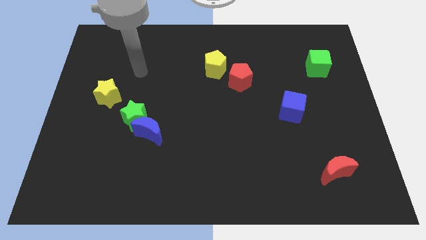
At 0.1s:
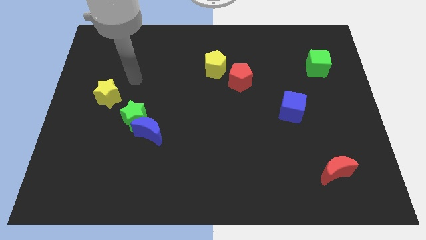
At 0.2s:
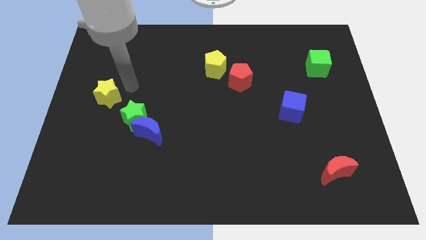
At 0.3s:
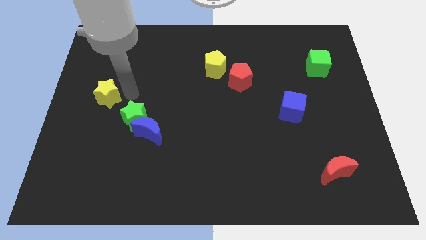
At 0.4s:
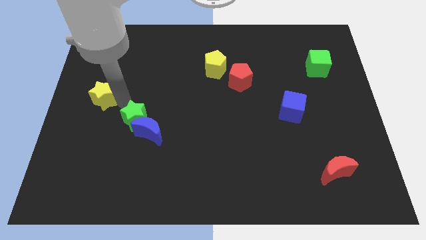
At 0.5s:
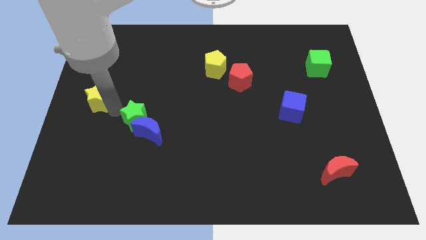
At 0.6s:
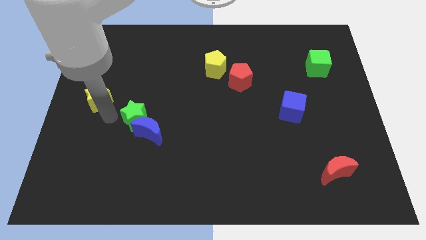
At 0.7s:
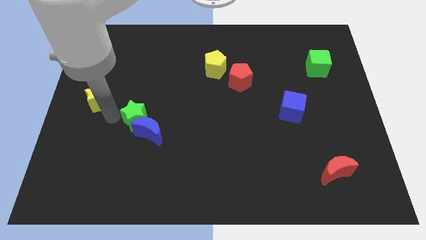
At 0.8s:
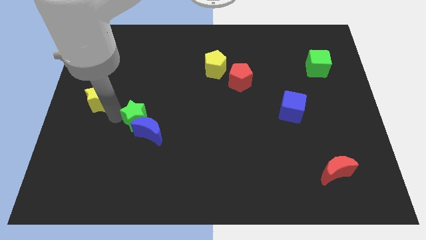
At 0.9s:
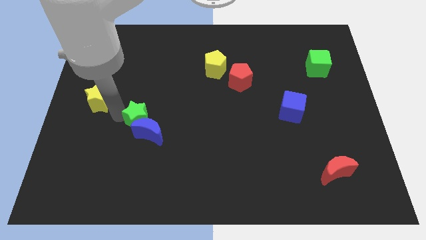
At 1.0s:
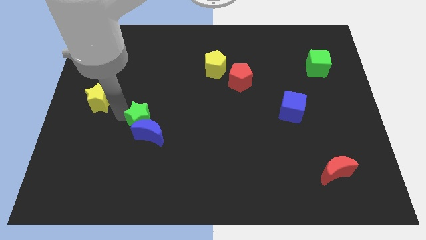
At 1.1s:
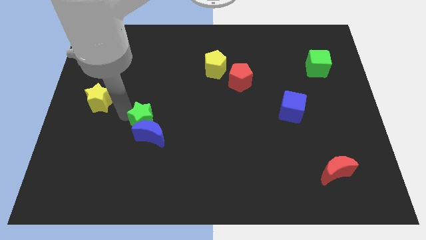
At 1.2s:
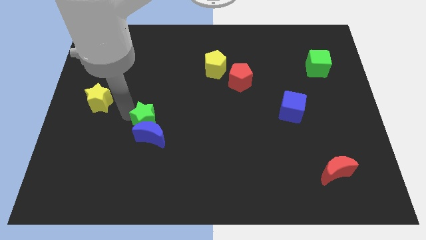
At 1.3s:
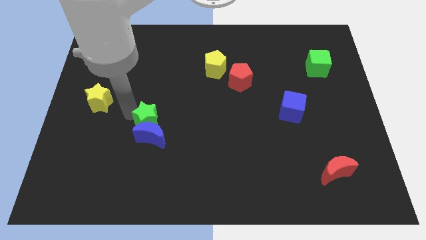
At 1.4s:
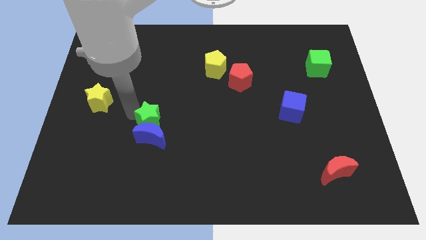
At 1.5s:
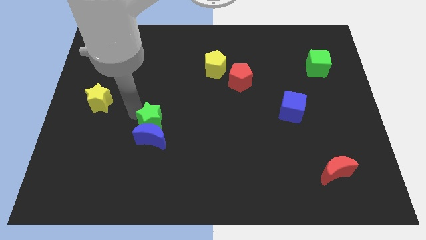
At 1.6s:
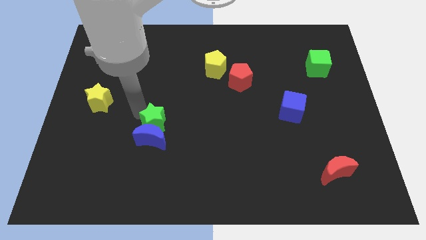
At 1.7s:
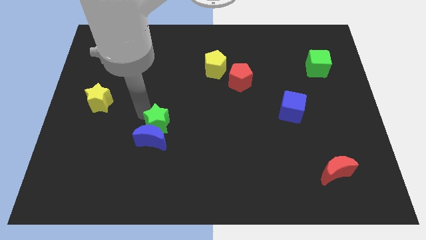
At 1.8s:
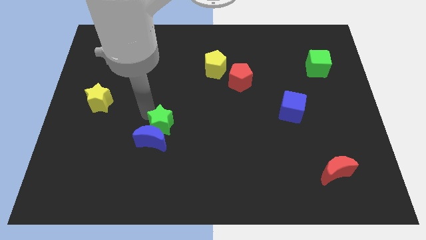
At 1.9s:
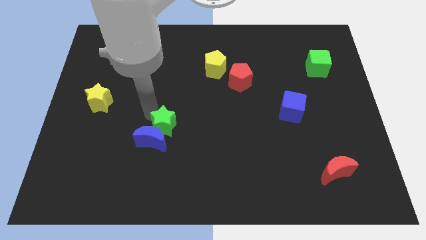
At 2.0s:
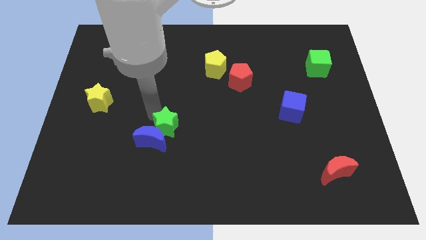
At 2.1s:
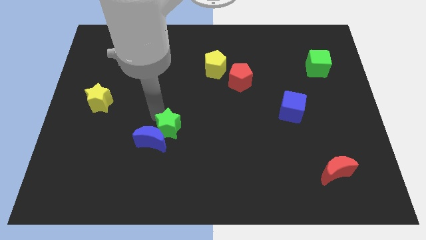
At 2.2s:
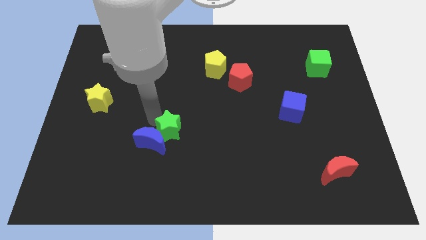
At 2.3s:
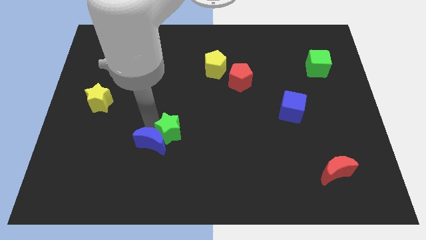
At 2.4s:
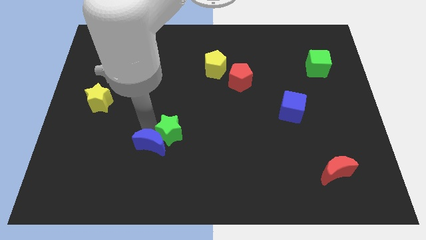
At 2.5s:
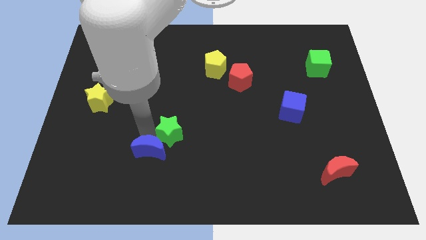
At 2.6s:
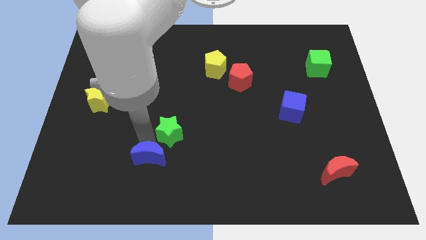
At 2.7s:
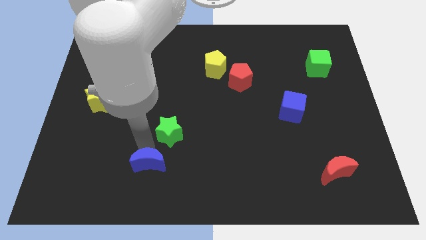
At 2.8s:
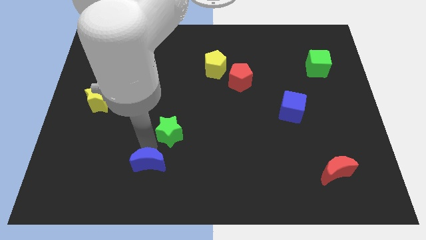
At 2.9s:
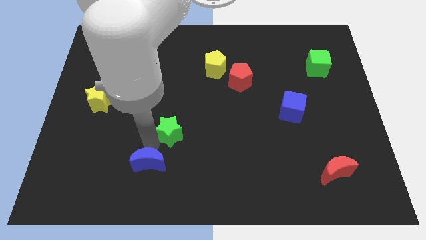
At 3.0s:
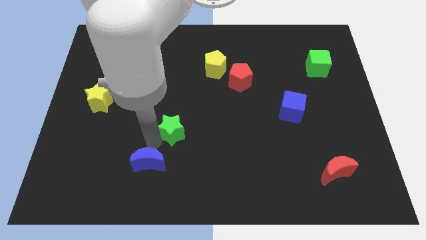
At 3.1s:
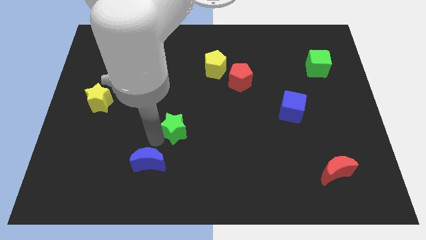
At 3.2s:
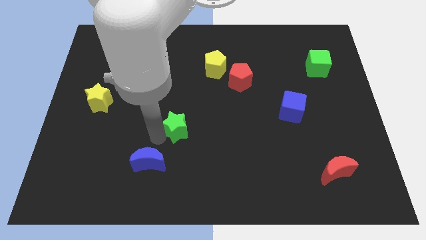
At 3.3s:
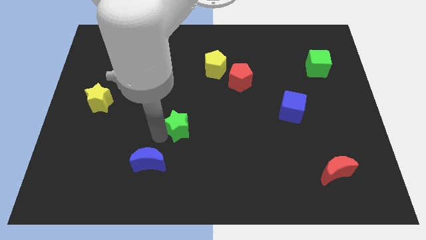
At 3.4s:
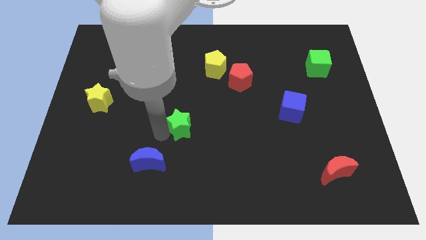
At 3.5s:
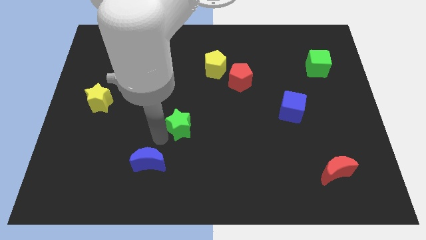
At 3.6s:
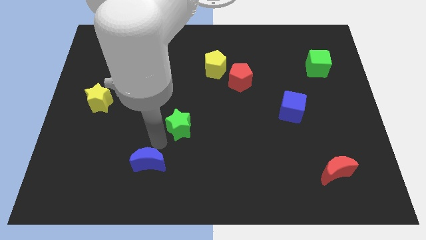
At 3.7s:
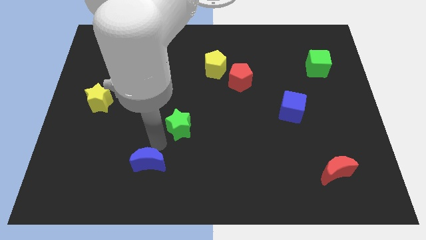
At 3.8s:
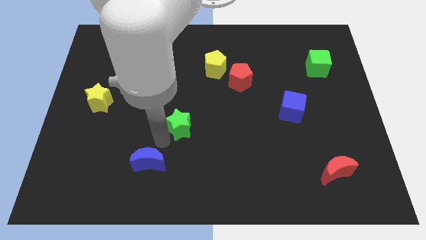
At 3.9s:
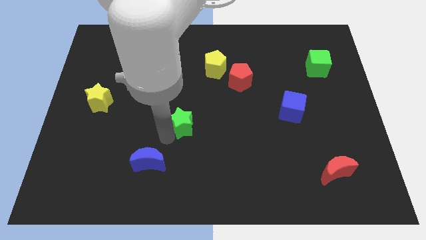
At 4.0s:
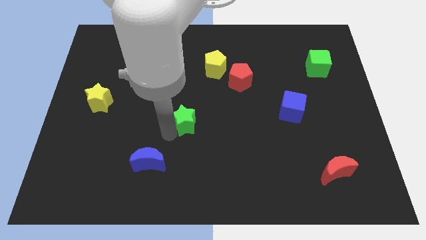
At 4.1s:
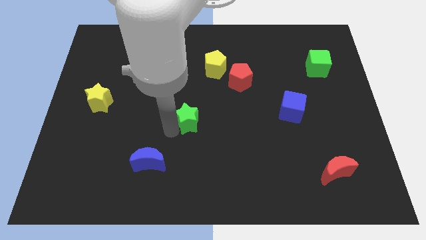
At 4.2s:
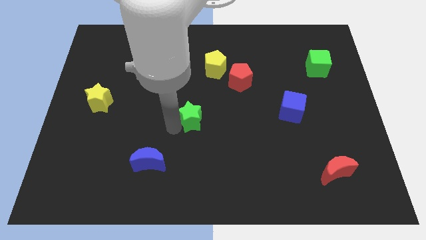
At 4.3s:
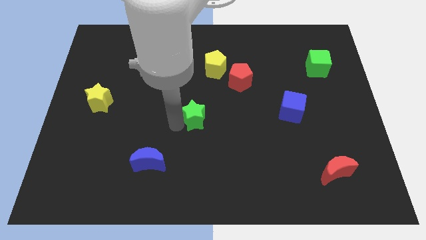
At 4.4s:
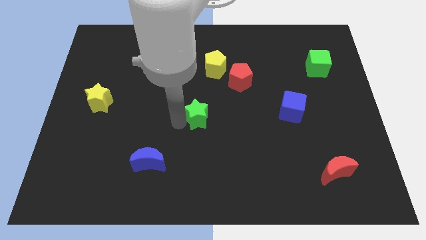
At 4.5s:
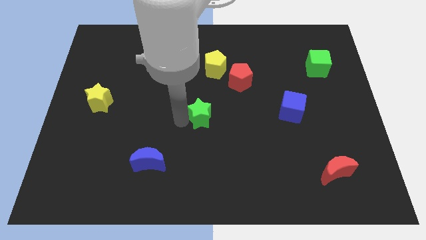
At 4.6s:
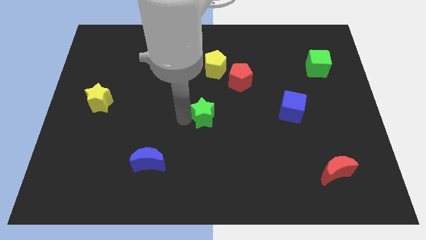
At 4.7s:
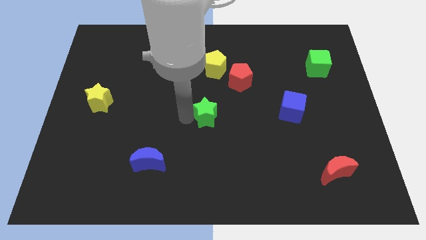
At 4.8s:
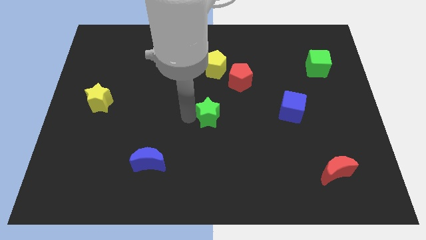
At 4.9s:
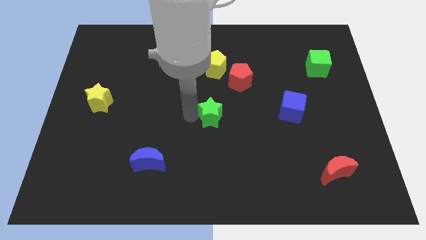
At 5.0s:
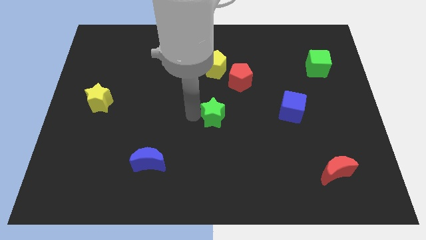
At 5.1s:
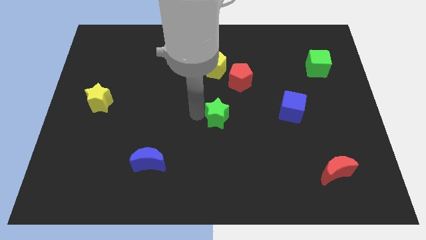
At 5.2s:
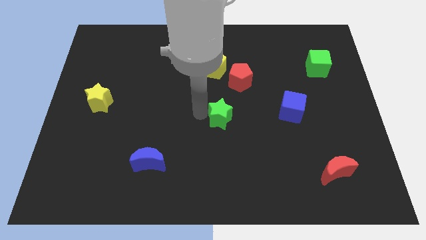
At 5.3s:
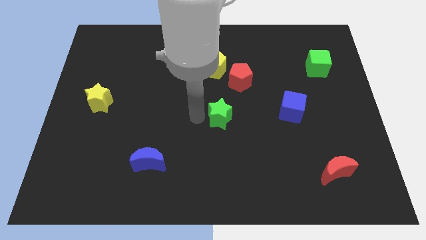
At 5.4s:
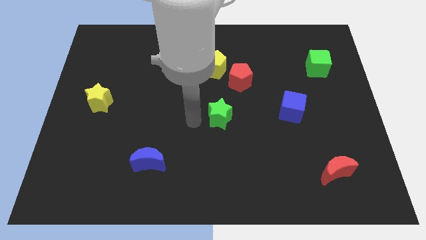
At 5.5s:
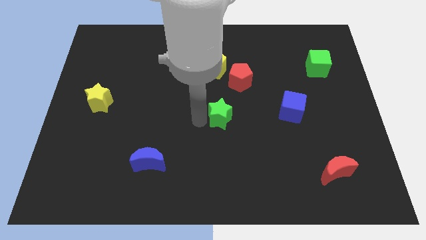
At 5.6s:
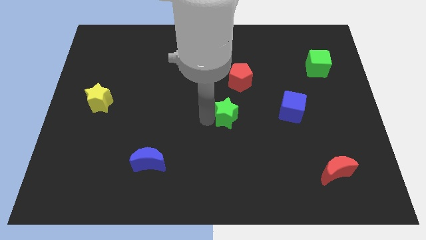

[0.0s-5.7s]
move the green star to the right

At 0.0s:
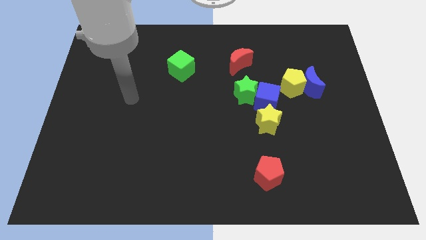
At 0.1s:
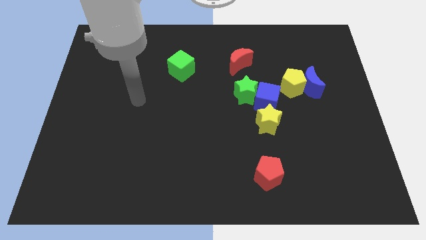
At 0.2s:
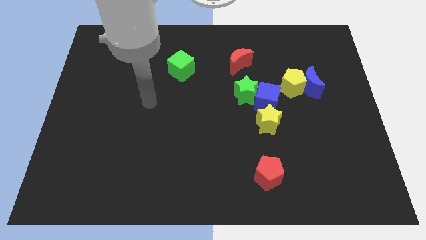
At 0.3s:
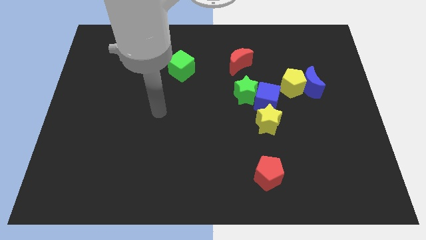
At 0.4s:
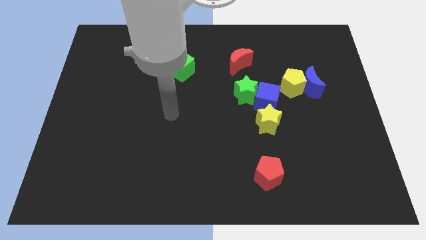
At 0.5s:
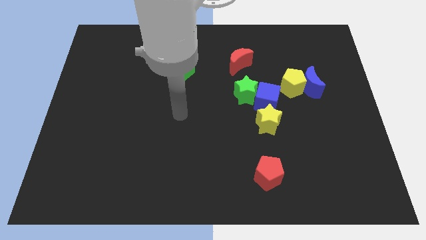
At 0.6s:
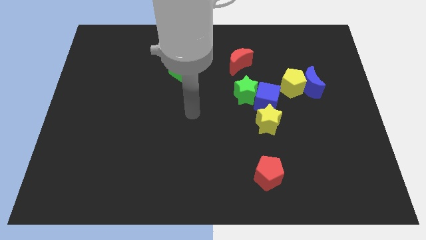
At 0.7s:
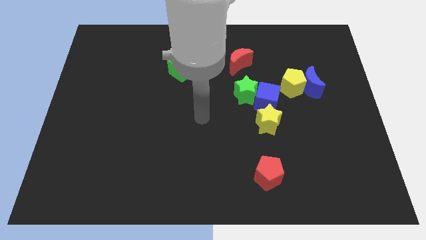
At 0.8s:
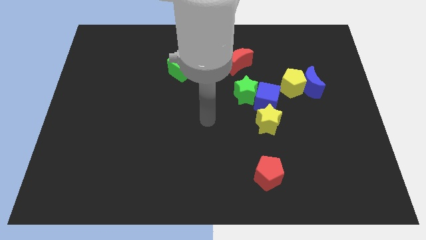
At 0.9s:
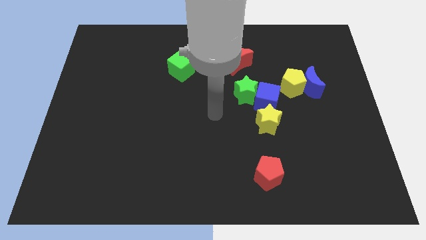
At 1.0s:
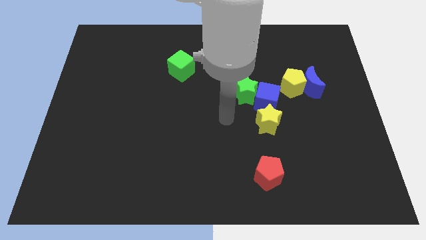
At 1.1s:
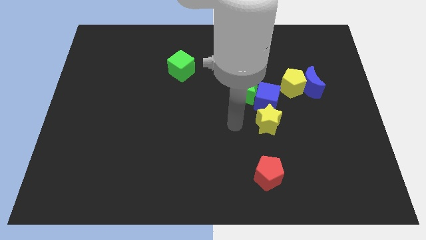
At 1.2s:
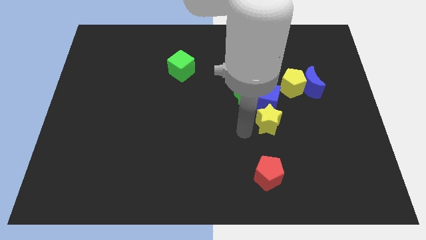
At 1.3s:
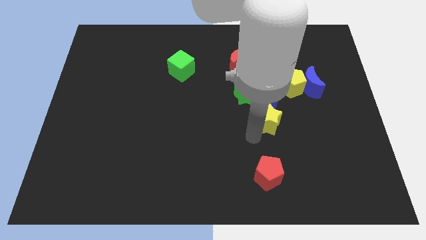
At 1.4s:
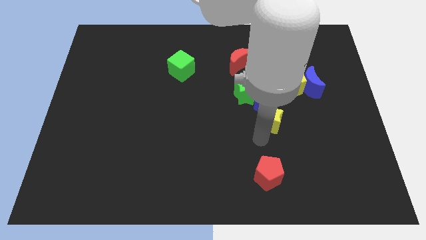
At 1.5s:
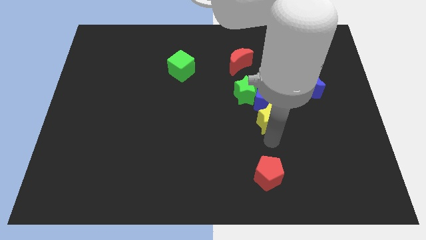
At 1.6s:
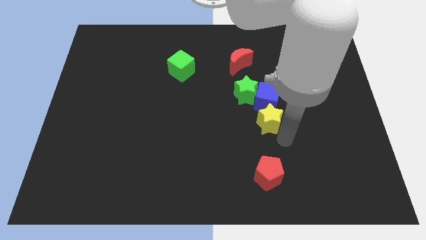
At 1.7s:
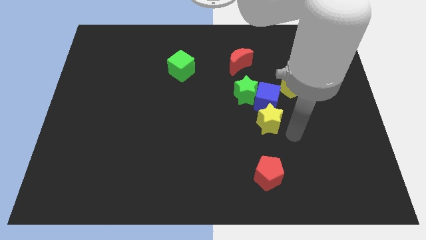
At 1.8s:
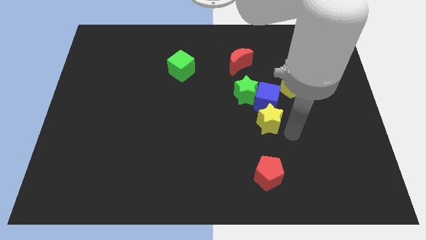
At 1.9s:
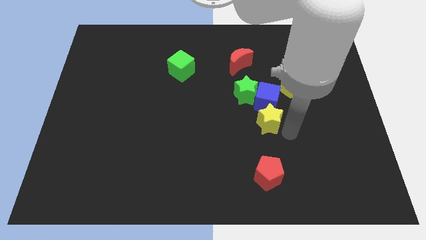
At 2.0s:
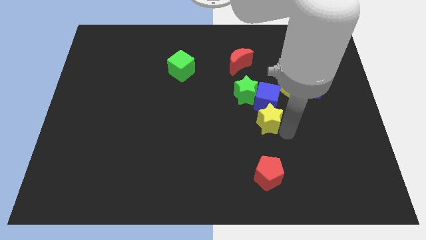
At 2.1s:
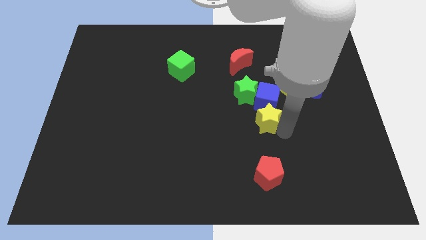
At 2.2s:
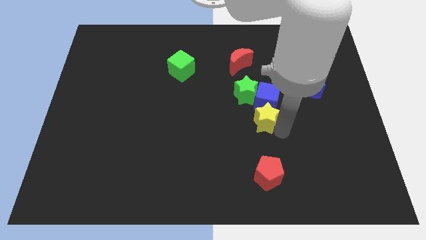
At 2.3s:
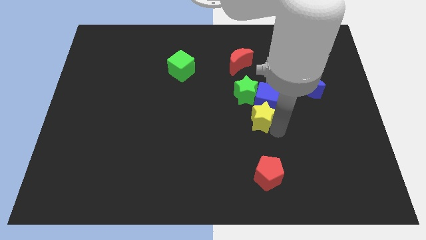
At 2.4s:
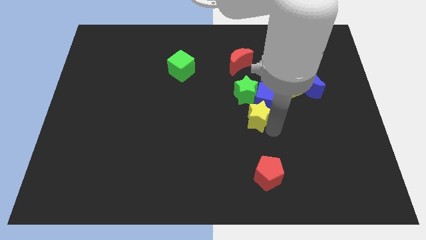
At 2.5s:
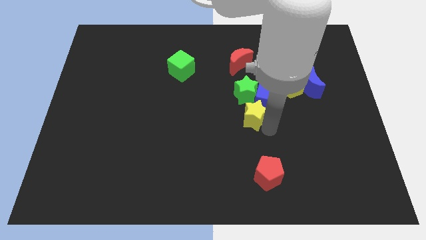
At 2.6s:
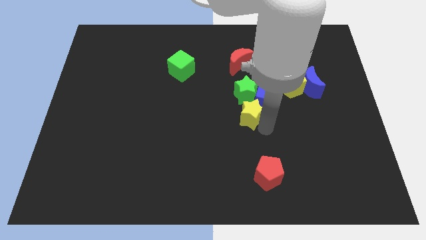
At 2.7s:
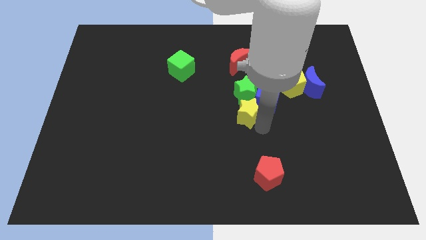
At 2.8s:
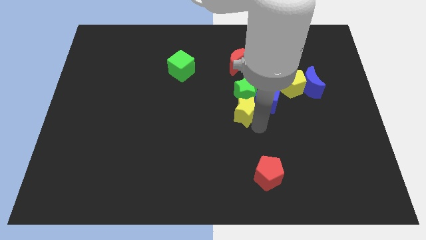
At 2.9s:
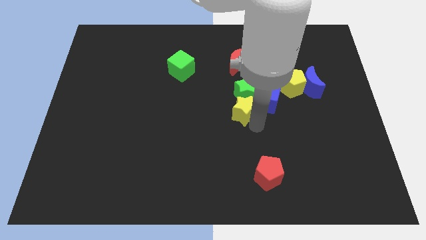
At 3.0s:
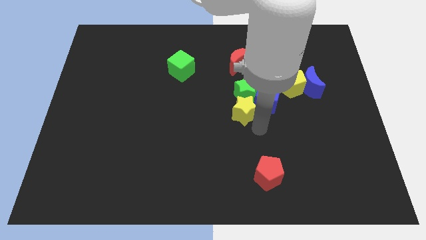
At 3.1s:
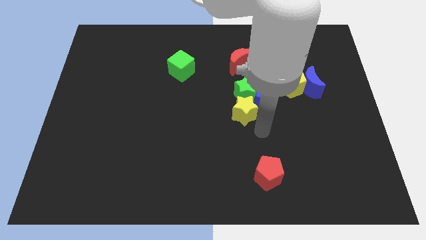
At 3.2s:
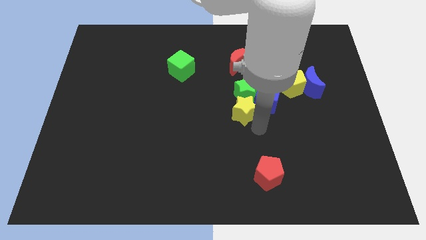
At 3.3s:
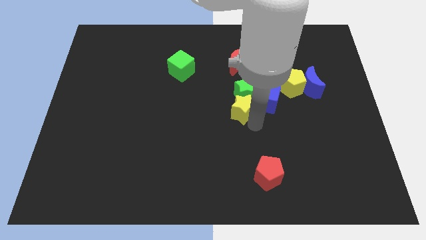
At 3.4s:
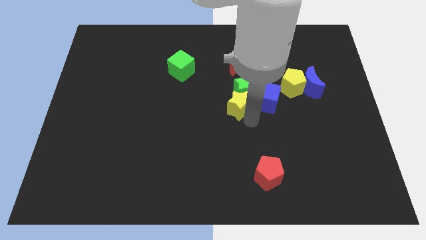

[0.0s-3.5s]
push the yellow star a little bit up and to the left
